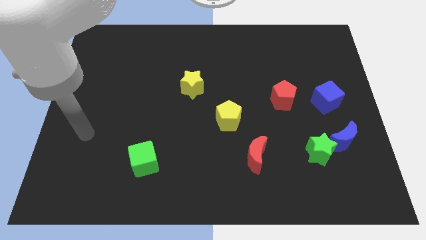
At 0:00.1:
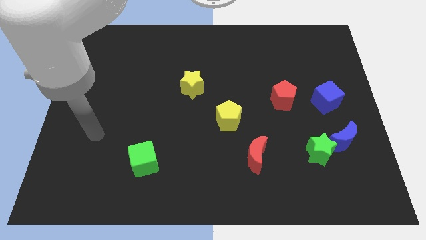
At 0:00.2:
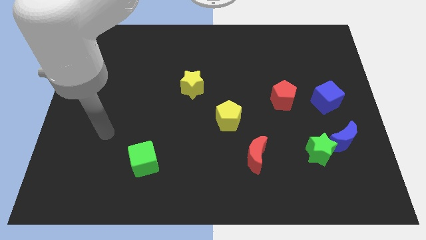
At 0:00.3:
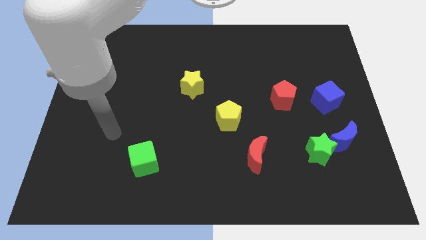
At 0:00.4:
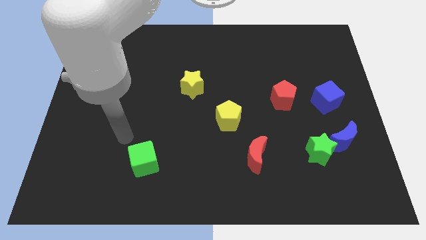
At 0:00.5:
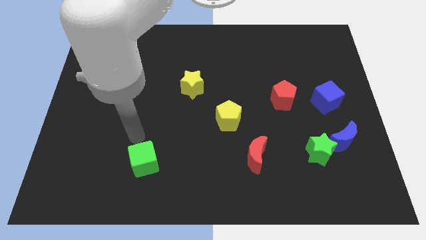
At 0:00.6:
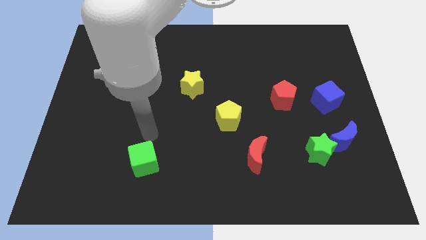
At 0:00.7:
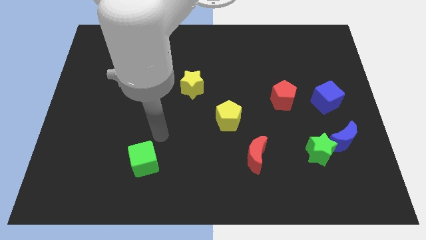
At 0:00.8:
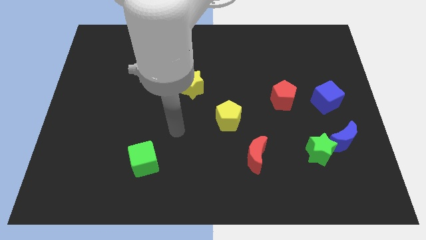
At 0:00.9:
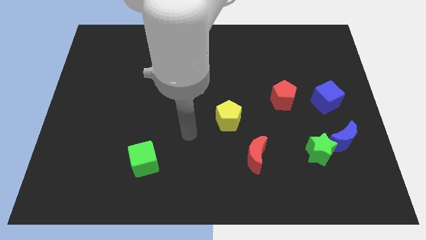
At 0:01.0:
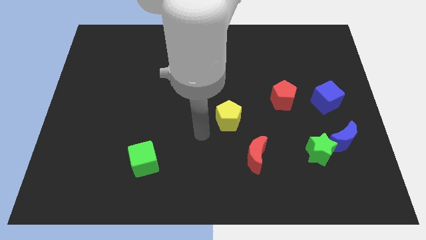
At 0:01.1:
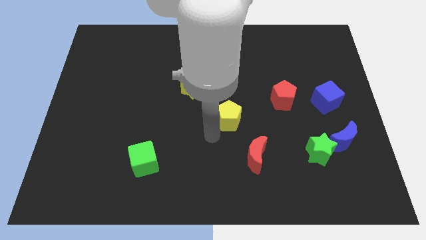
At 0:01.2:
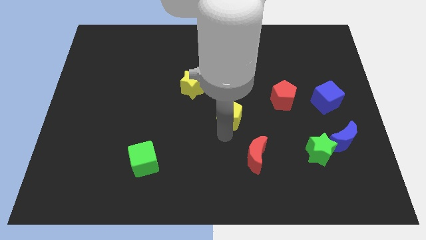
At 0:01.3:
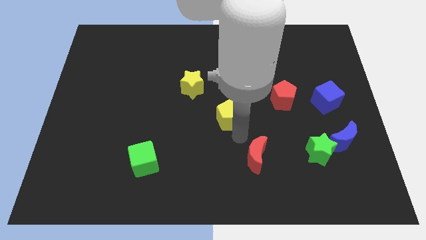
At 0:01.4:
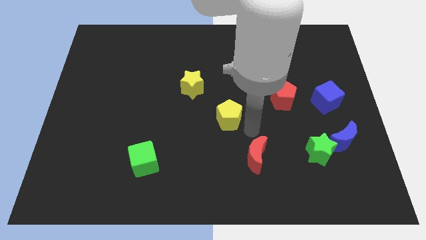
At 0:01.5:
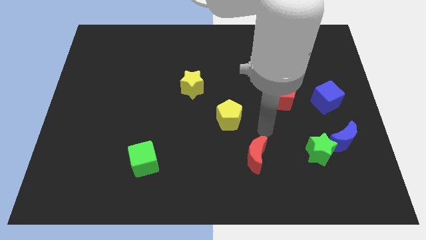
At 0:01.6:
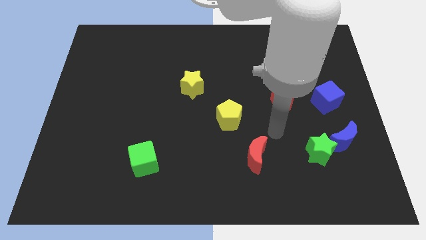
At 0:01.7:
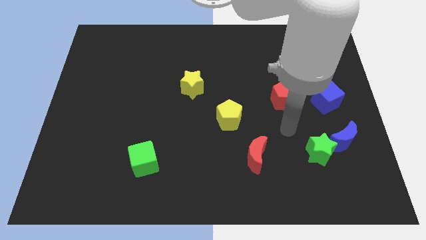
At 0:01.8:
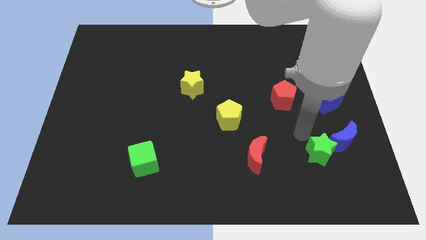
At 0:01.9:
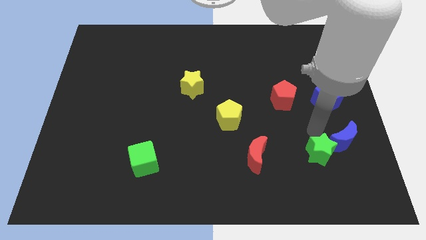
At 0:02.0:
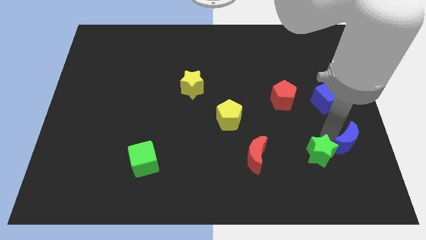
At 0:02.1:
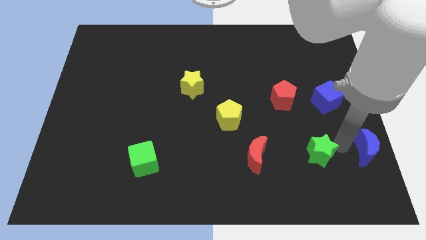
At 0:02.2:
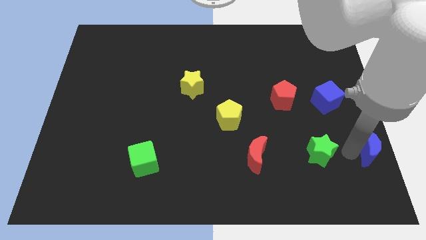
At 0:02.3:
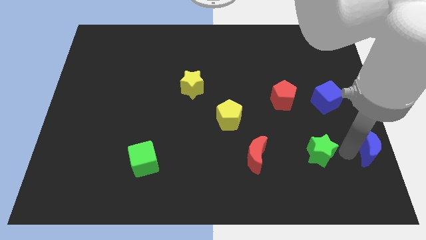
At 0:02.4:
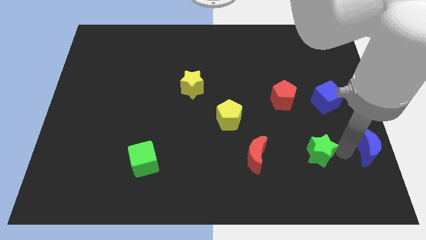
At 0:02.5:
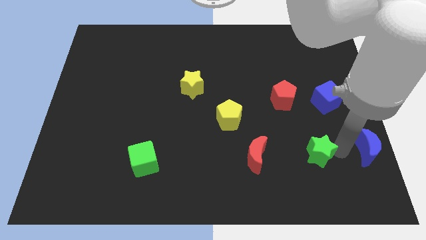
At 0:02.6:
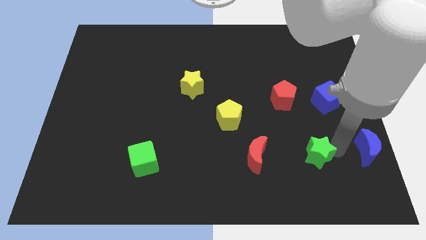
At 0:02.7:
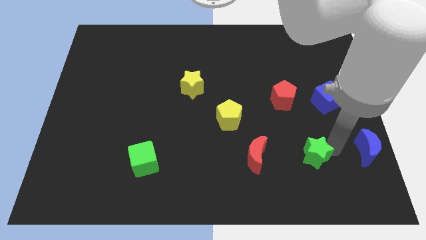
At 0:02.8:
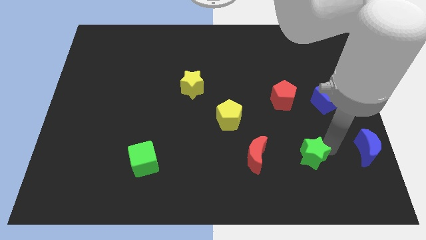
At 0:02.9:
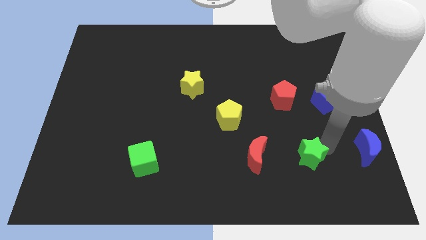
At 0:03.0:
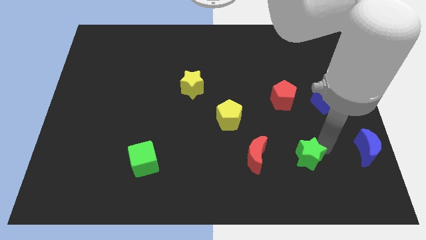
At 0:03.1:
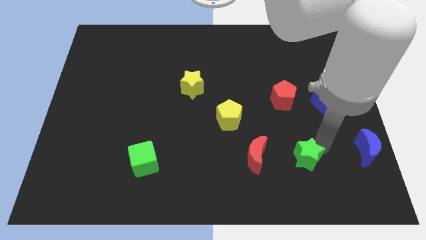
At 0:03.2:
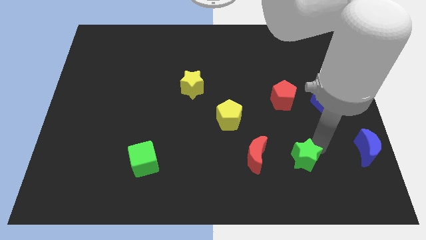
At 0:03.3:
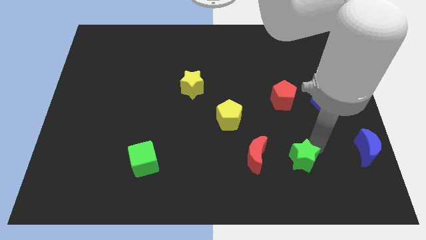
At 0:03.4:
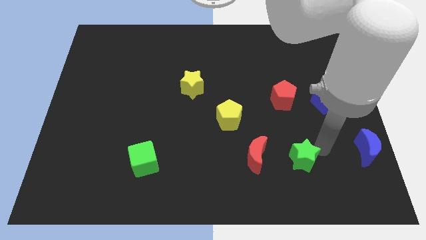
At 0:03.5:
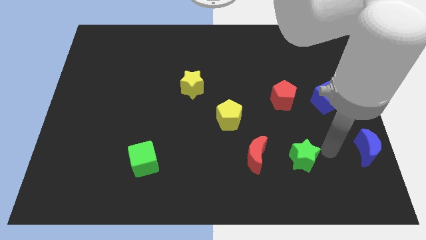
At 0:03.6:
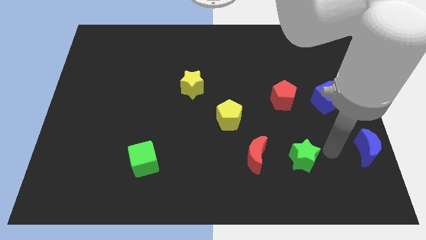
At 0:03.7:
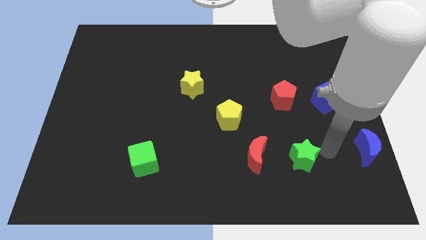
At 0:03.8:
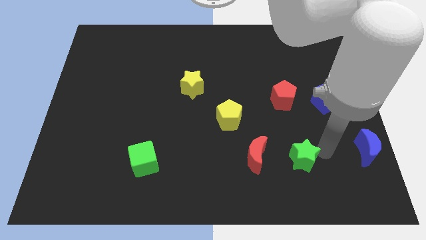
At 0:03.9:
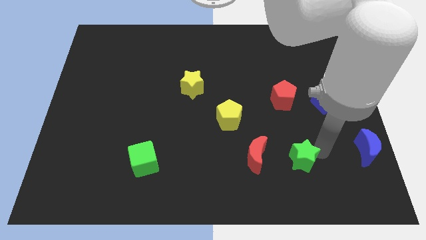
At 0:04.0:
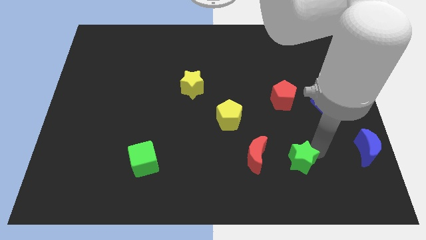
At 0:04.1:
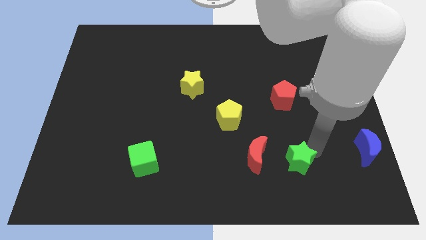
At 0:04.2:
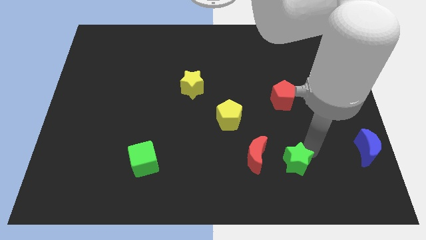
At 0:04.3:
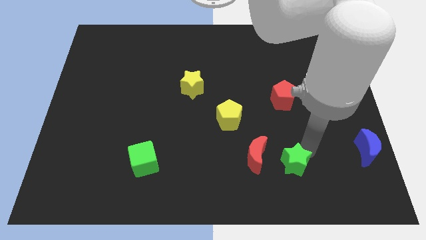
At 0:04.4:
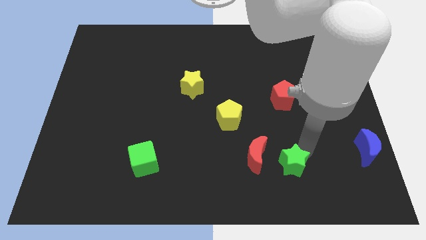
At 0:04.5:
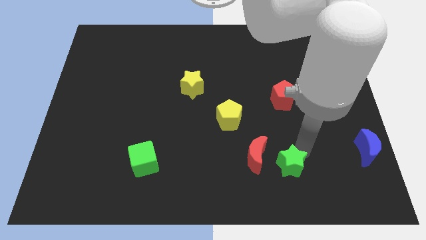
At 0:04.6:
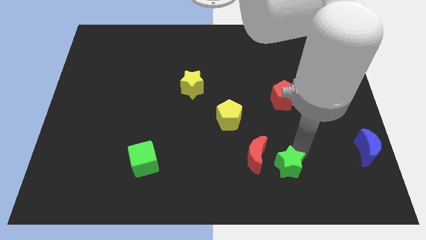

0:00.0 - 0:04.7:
slightly slide the green star to the left

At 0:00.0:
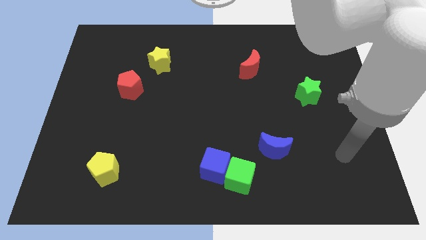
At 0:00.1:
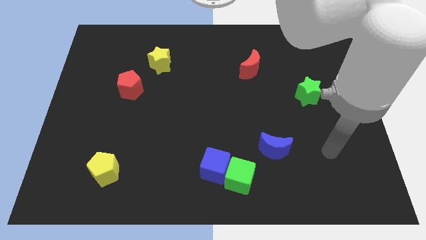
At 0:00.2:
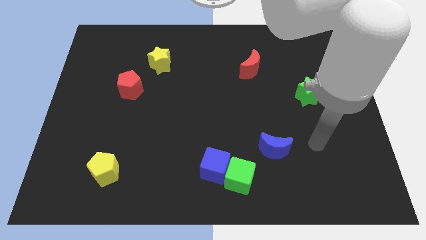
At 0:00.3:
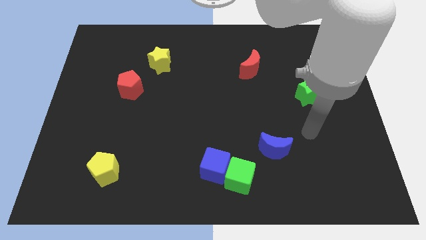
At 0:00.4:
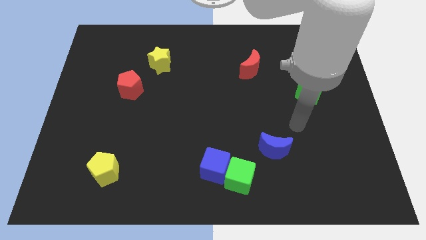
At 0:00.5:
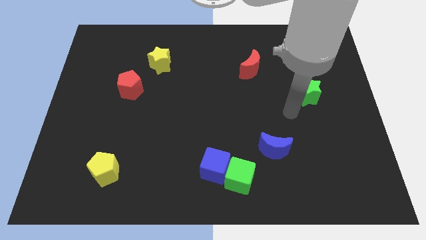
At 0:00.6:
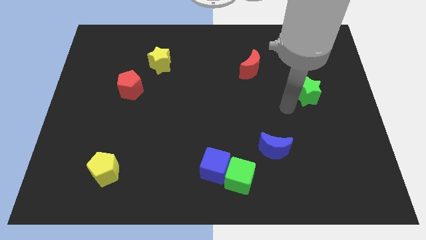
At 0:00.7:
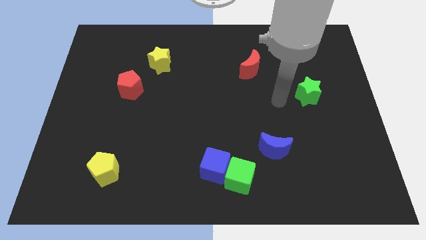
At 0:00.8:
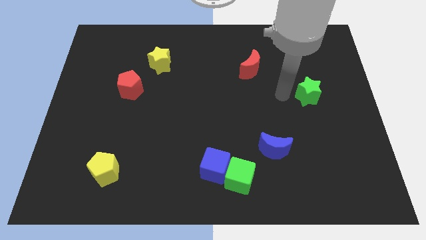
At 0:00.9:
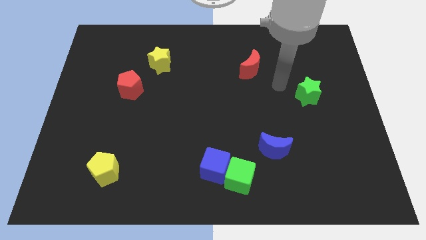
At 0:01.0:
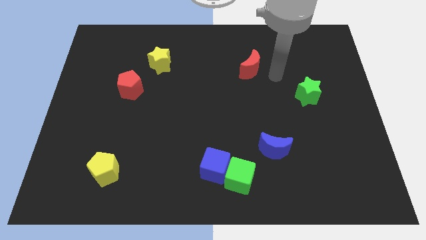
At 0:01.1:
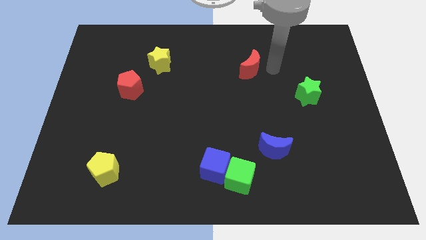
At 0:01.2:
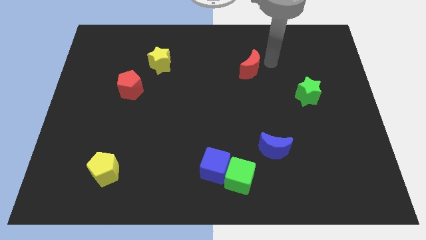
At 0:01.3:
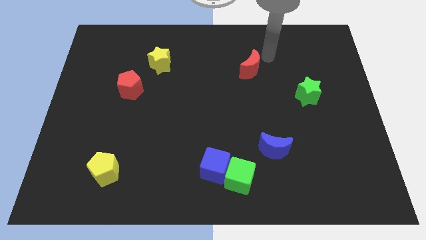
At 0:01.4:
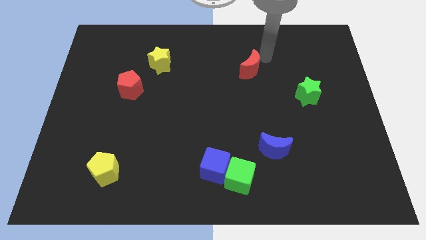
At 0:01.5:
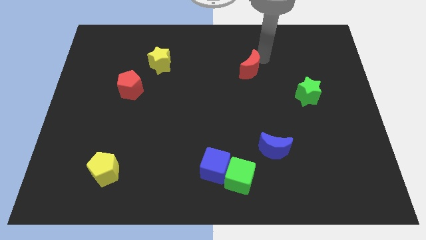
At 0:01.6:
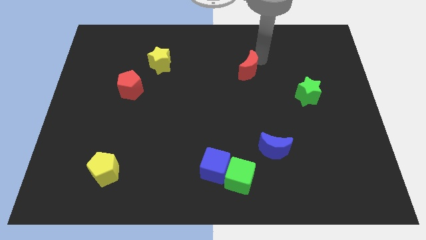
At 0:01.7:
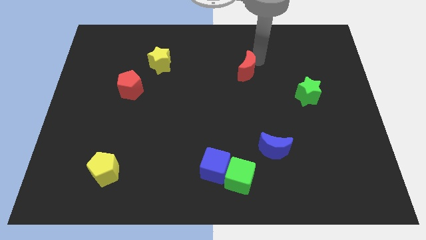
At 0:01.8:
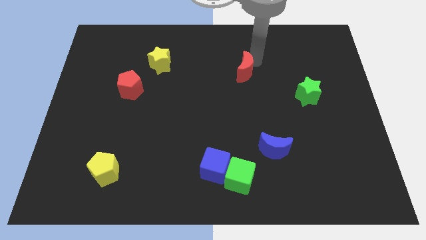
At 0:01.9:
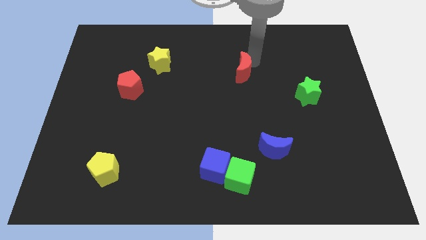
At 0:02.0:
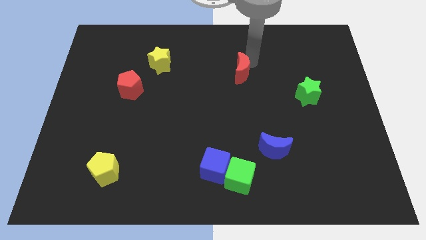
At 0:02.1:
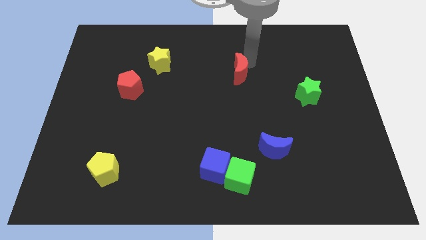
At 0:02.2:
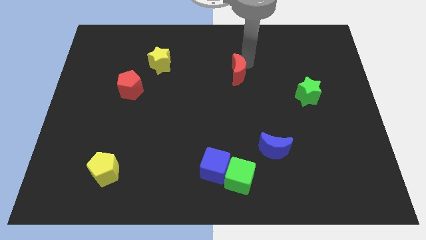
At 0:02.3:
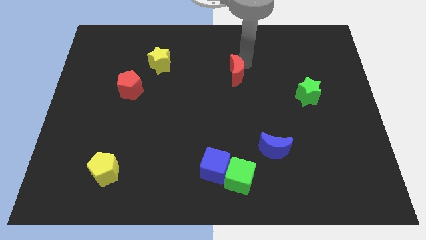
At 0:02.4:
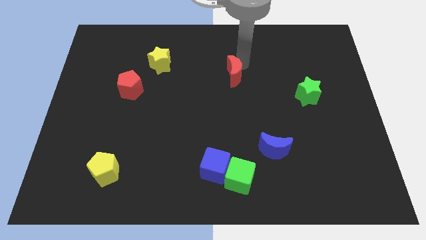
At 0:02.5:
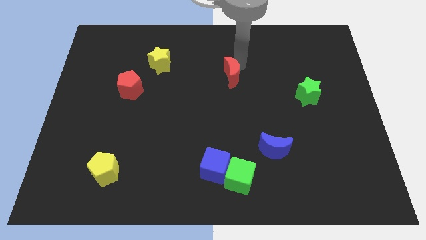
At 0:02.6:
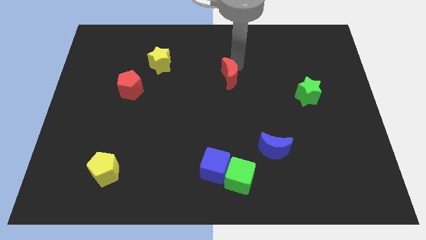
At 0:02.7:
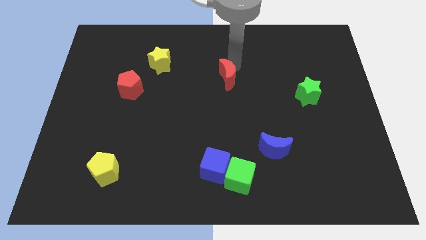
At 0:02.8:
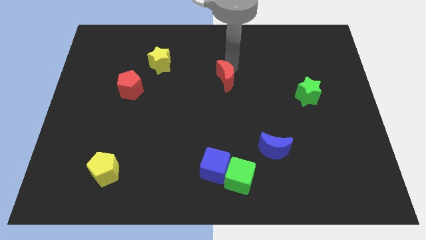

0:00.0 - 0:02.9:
move the red moon diagonally down and to the left a little bit

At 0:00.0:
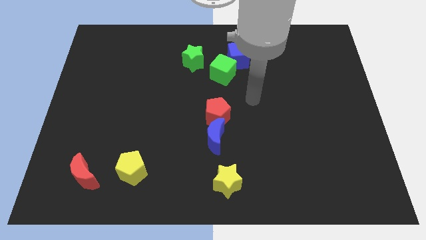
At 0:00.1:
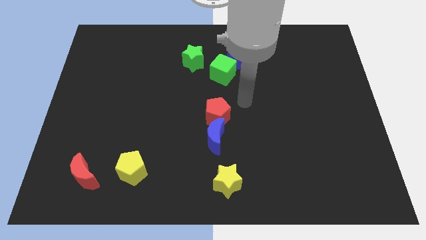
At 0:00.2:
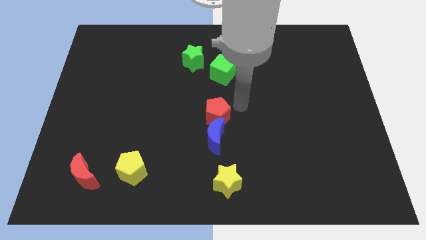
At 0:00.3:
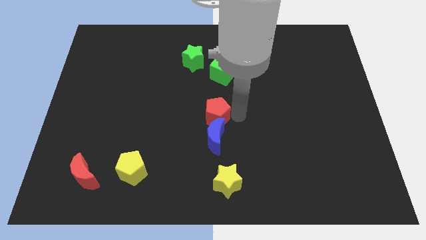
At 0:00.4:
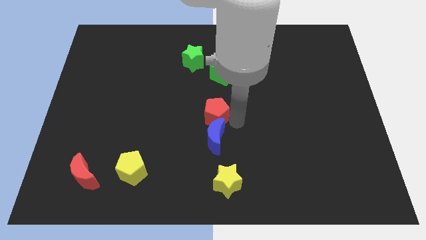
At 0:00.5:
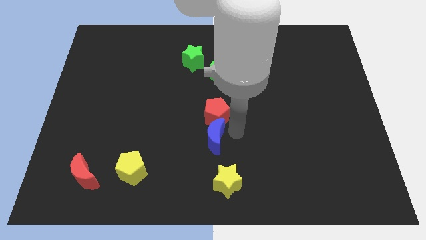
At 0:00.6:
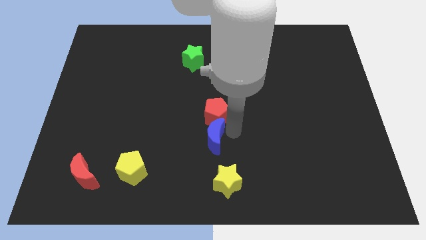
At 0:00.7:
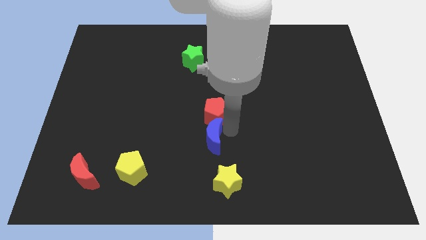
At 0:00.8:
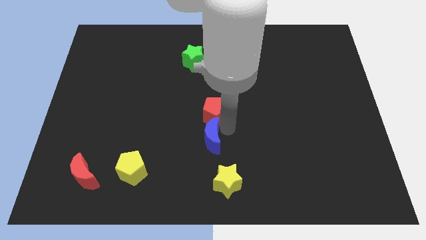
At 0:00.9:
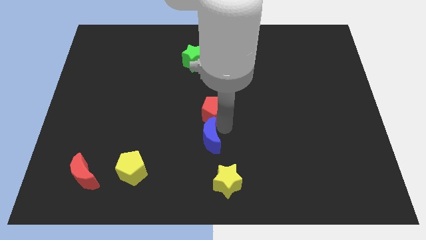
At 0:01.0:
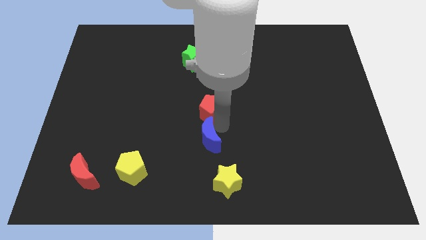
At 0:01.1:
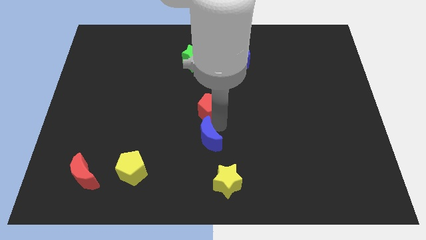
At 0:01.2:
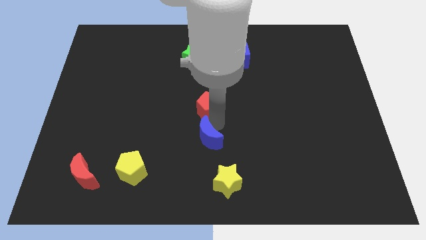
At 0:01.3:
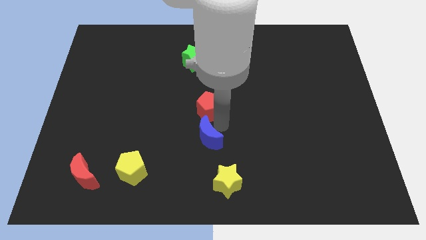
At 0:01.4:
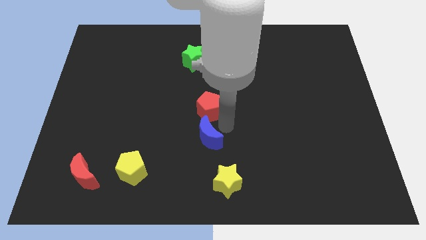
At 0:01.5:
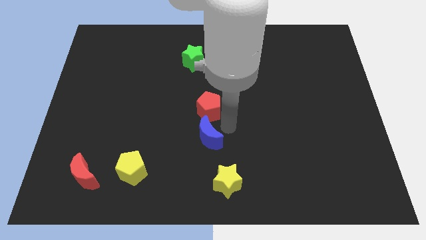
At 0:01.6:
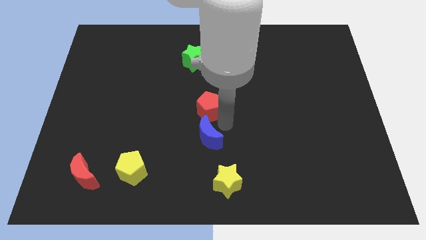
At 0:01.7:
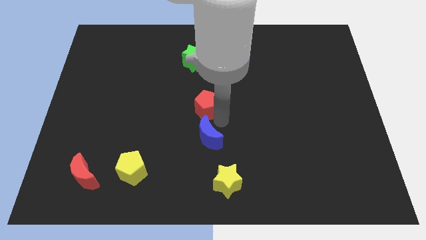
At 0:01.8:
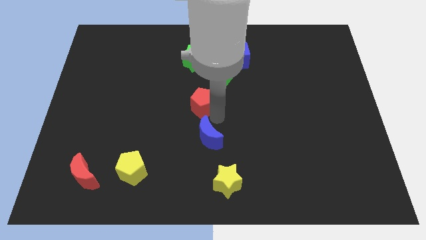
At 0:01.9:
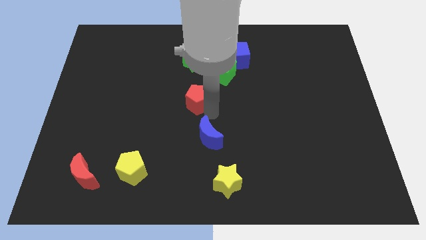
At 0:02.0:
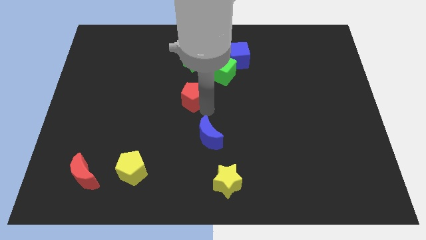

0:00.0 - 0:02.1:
slide the red pentagon slightly upwards and then left
